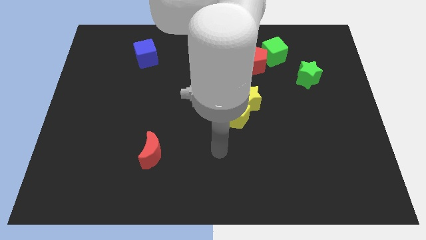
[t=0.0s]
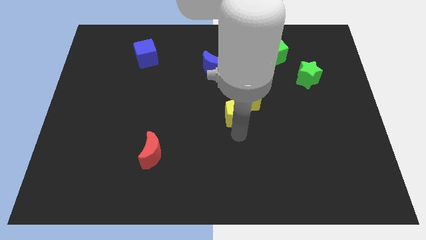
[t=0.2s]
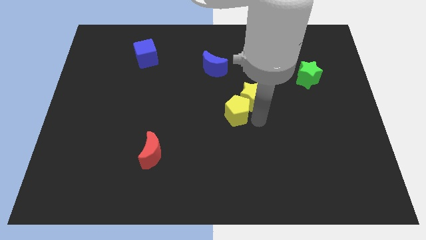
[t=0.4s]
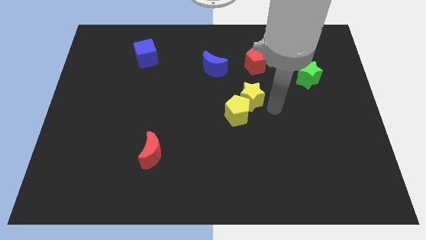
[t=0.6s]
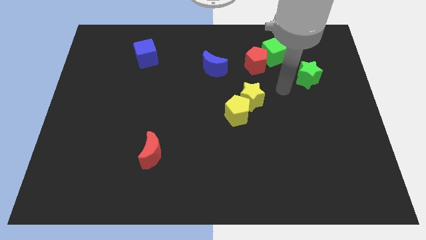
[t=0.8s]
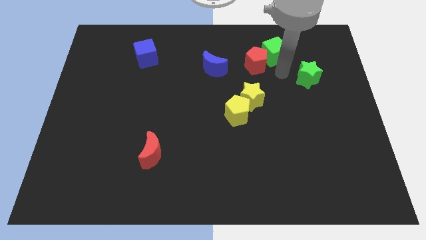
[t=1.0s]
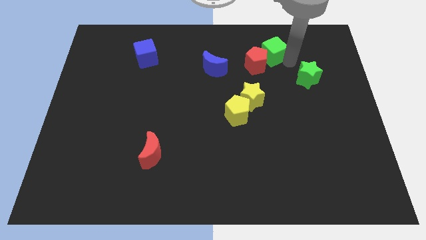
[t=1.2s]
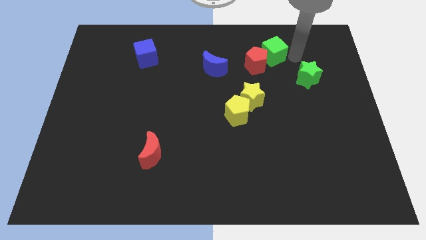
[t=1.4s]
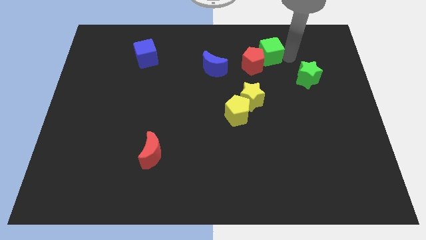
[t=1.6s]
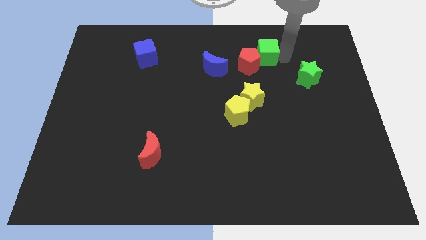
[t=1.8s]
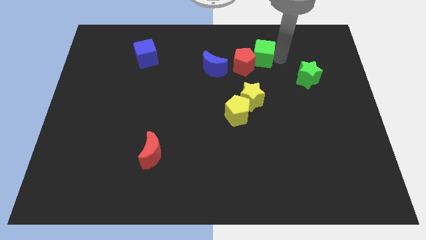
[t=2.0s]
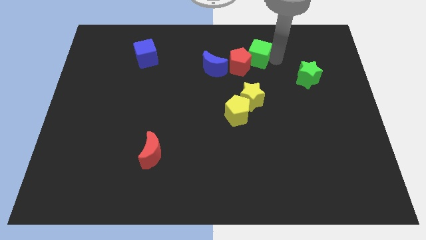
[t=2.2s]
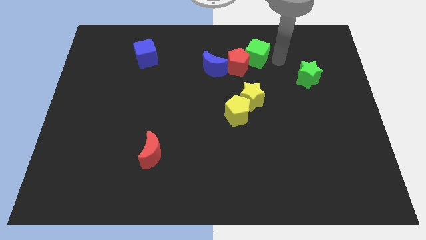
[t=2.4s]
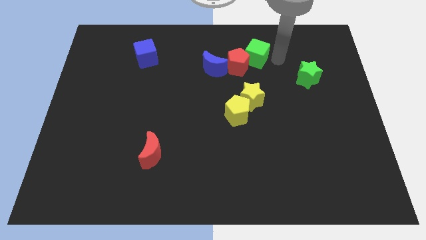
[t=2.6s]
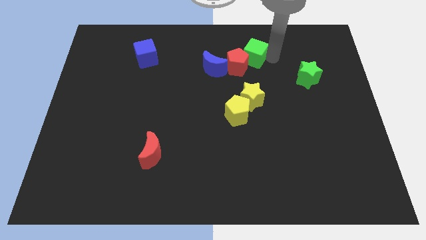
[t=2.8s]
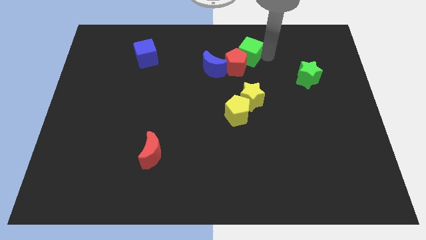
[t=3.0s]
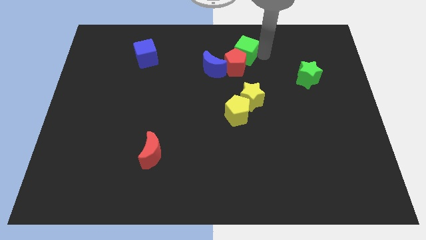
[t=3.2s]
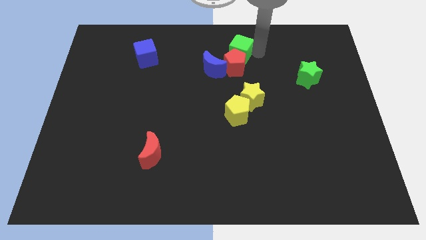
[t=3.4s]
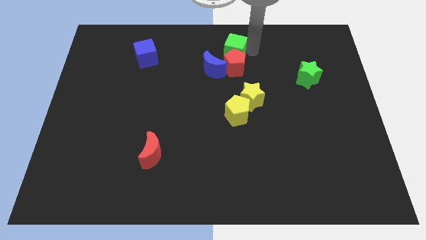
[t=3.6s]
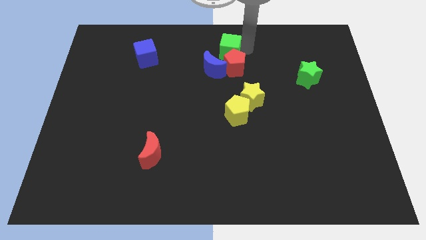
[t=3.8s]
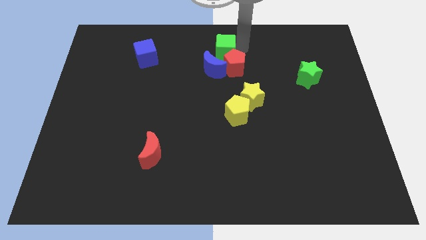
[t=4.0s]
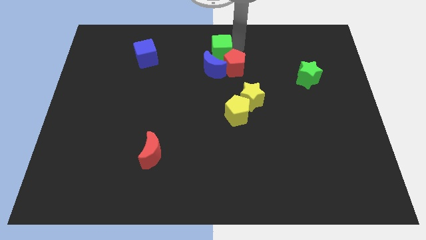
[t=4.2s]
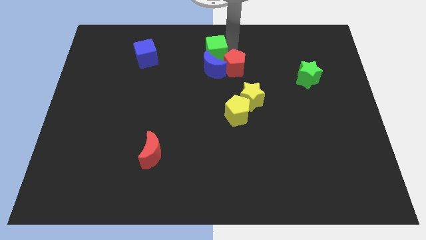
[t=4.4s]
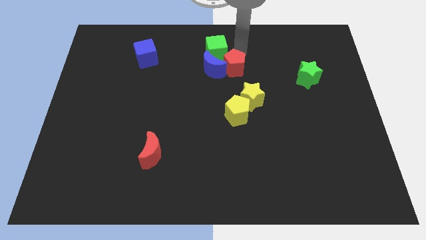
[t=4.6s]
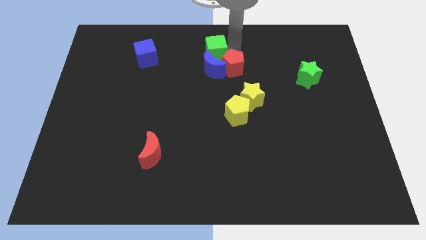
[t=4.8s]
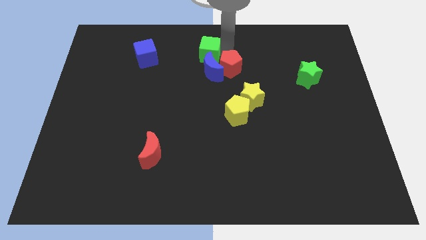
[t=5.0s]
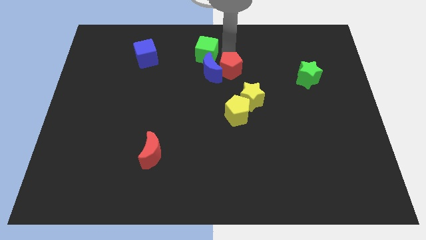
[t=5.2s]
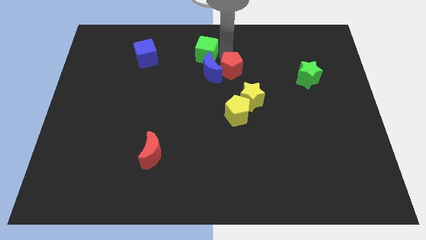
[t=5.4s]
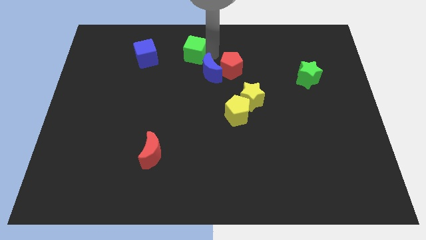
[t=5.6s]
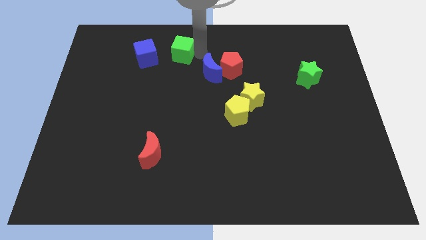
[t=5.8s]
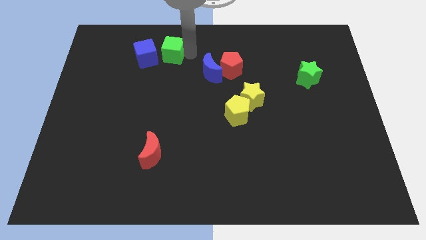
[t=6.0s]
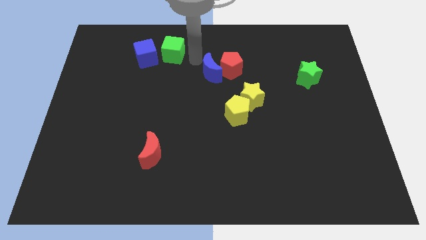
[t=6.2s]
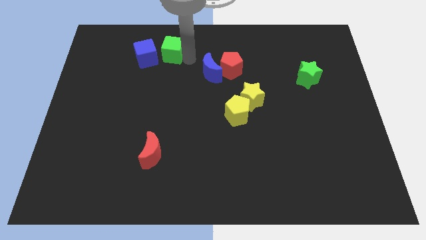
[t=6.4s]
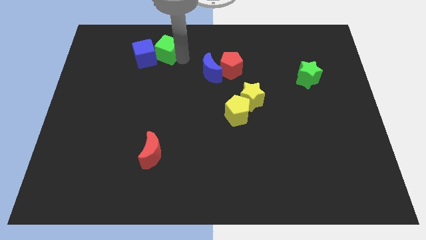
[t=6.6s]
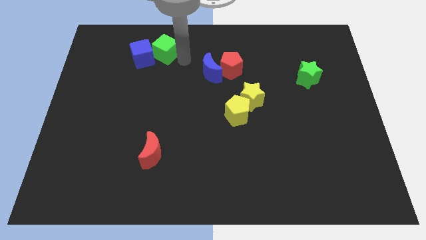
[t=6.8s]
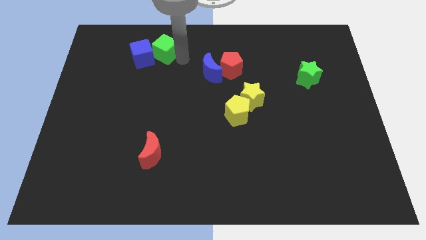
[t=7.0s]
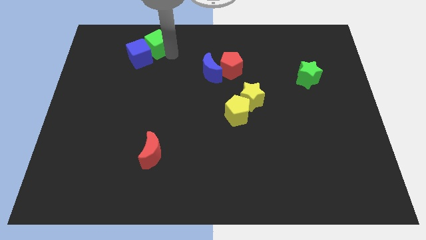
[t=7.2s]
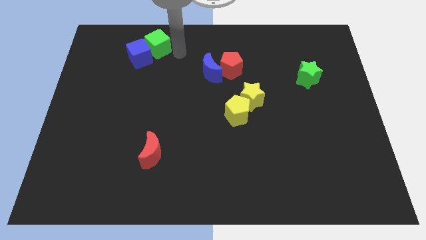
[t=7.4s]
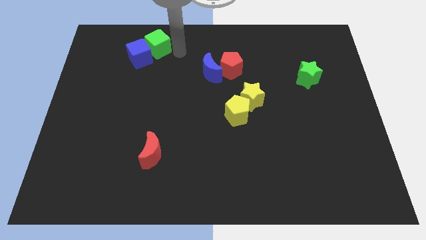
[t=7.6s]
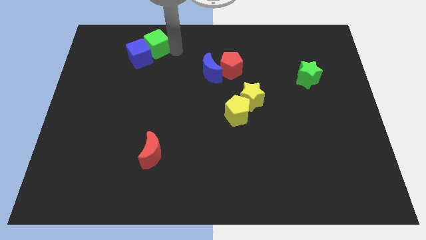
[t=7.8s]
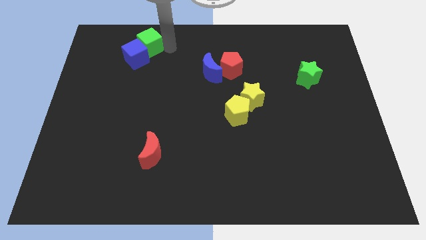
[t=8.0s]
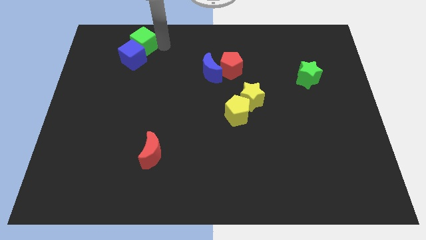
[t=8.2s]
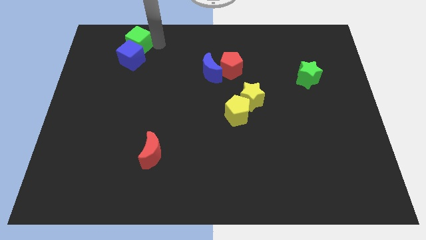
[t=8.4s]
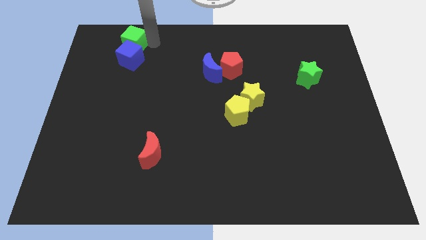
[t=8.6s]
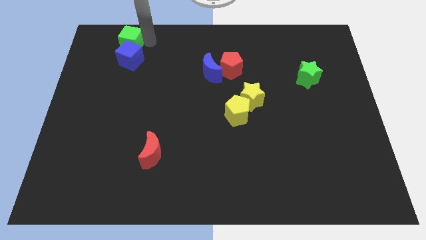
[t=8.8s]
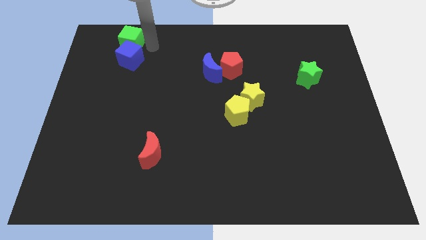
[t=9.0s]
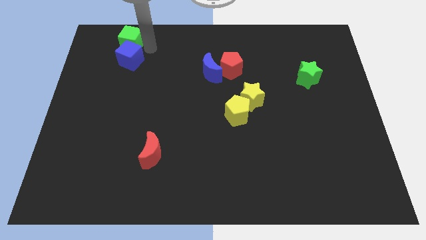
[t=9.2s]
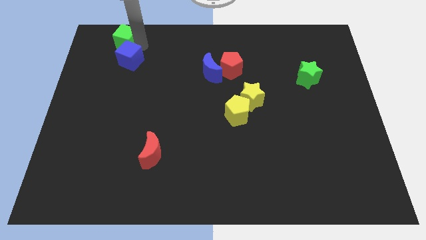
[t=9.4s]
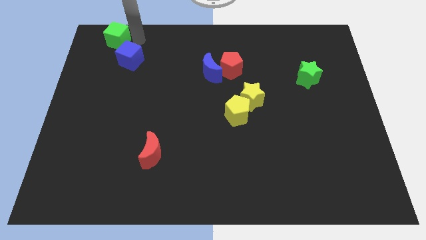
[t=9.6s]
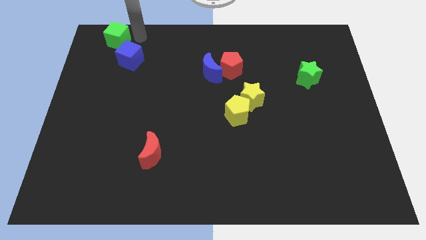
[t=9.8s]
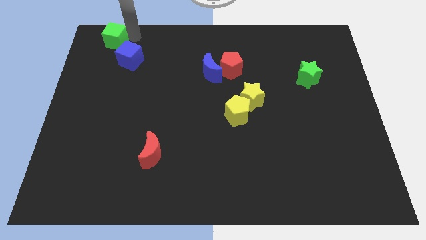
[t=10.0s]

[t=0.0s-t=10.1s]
put the green cube to the upper left corner

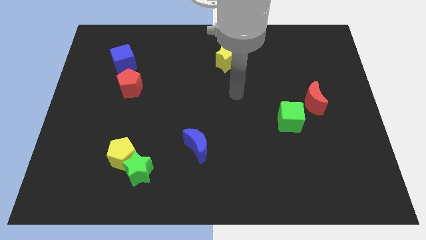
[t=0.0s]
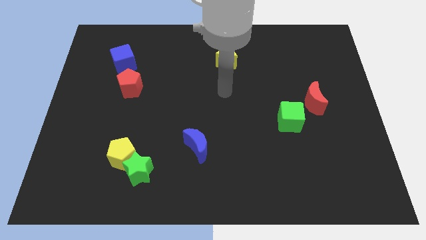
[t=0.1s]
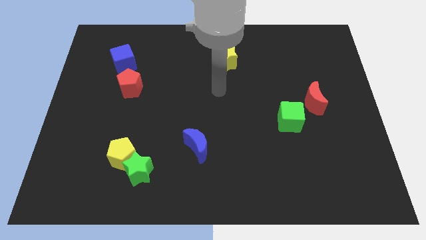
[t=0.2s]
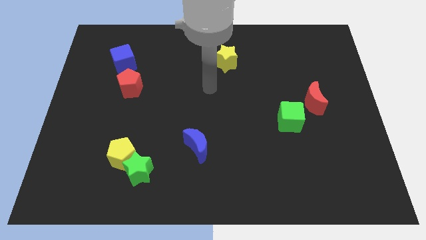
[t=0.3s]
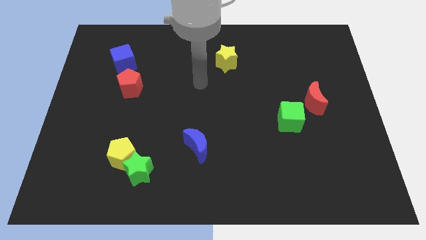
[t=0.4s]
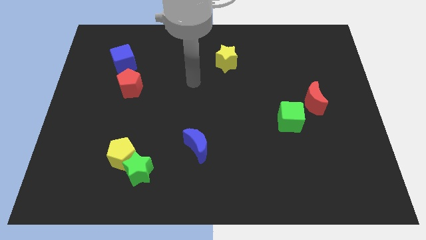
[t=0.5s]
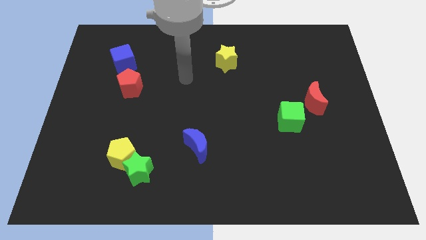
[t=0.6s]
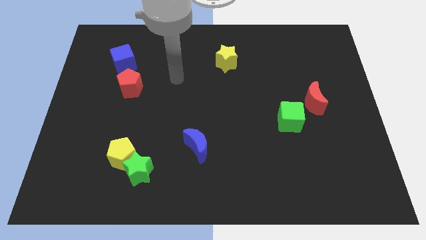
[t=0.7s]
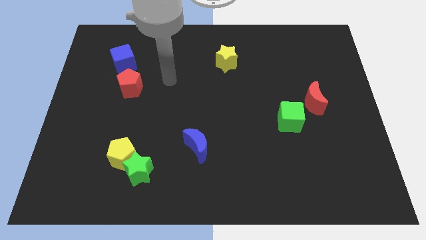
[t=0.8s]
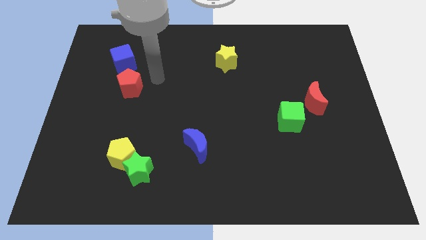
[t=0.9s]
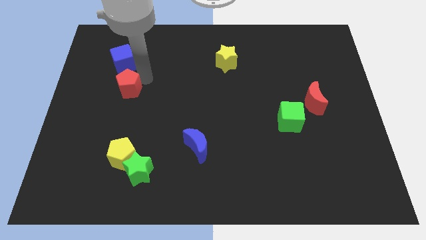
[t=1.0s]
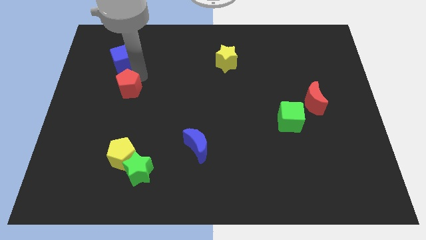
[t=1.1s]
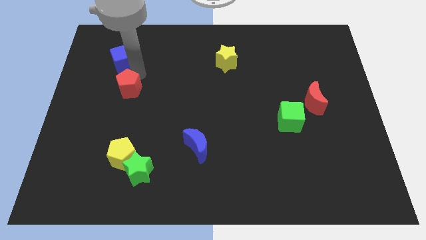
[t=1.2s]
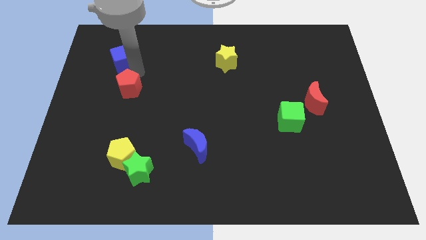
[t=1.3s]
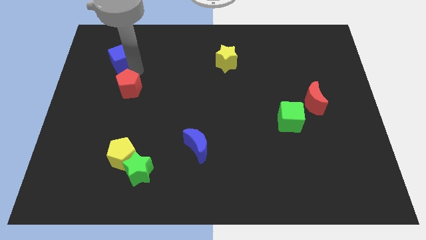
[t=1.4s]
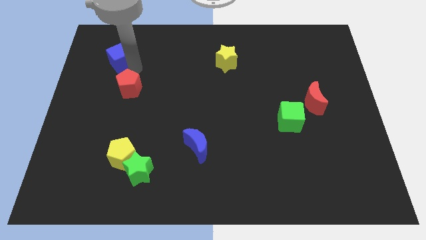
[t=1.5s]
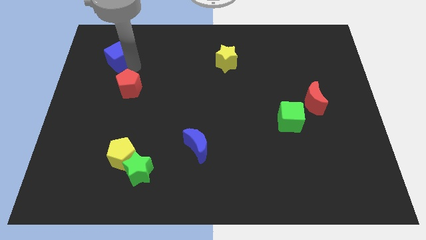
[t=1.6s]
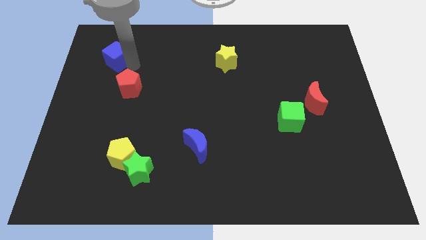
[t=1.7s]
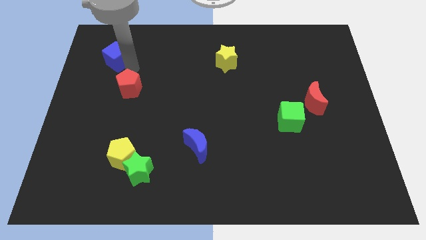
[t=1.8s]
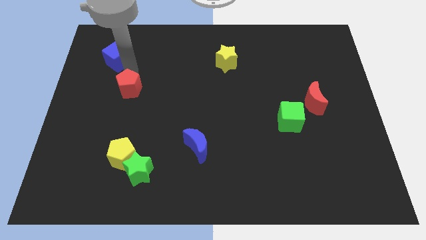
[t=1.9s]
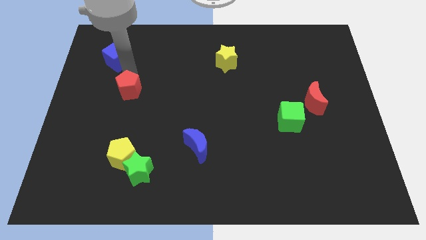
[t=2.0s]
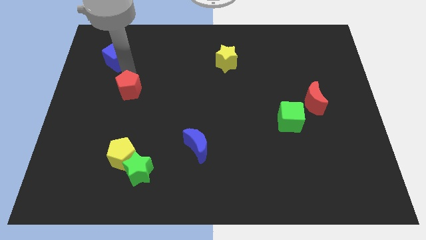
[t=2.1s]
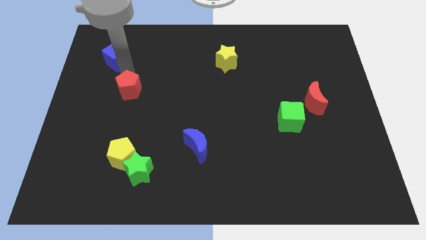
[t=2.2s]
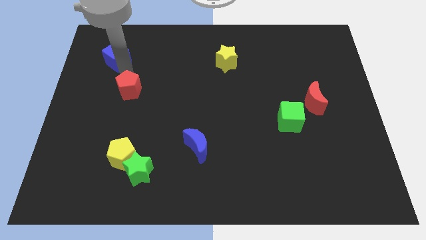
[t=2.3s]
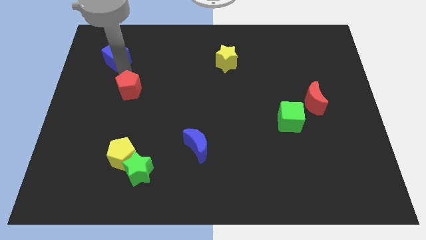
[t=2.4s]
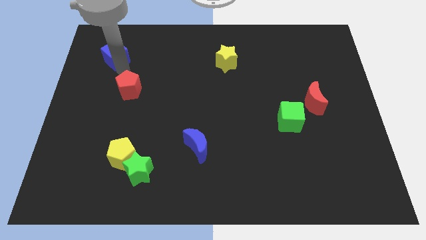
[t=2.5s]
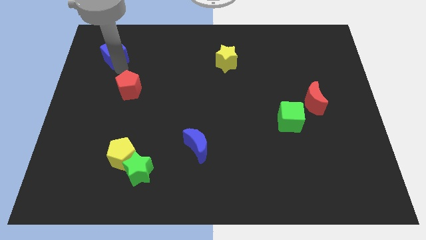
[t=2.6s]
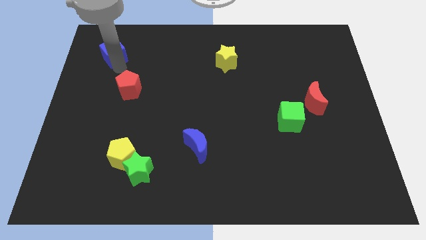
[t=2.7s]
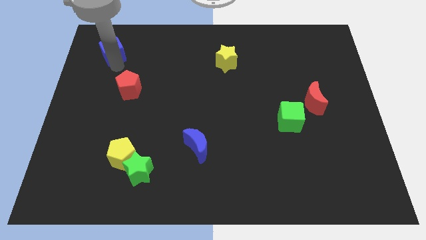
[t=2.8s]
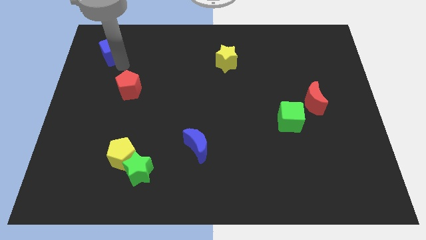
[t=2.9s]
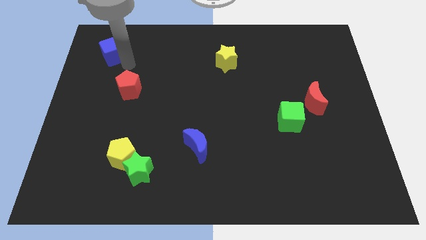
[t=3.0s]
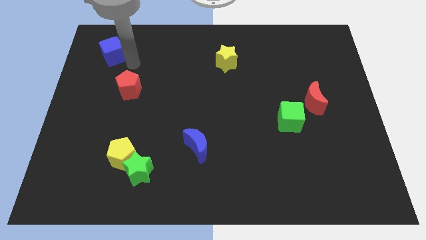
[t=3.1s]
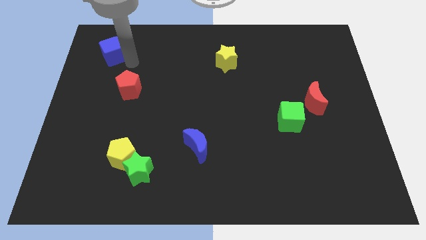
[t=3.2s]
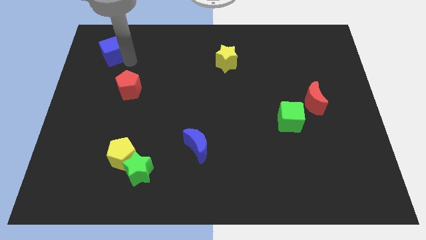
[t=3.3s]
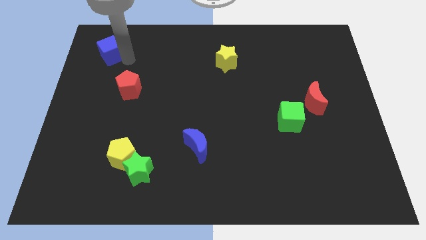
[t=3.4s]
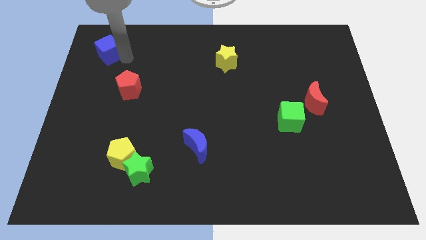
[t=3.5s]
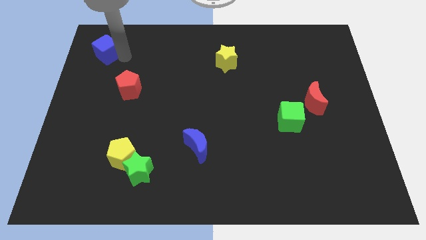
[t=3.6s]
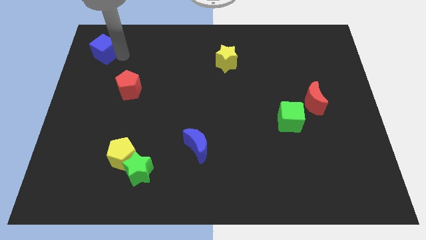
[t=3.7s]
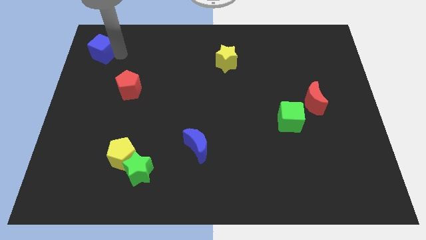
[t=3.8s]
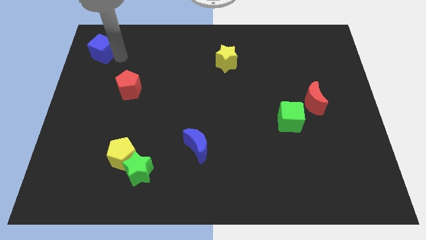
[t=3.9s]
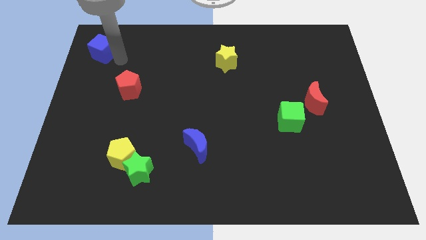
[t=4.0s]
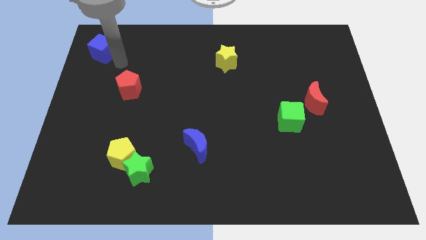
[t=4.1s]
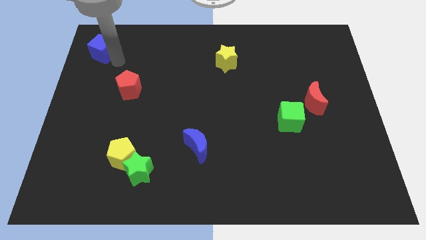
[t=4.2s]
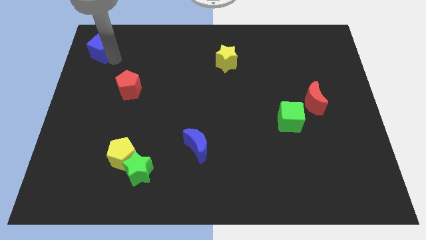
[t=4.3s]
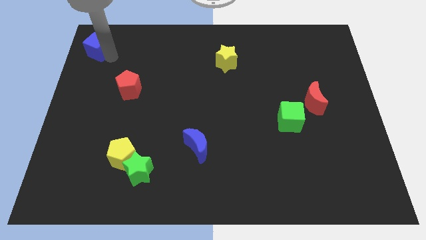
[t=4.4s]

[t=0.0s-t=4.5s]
push the blue cube to the top left of the board
